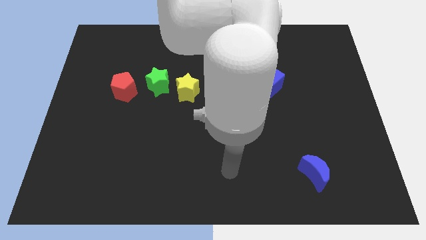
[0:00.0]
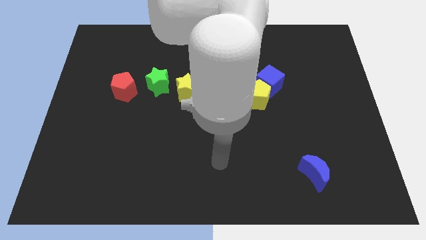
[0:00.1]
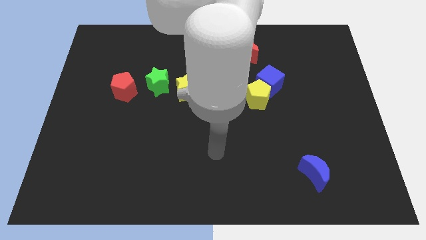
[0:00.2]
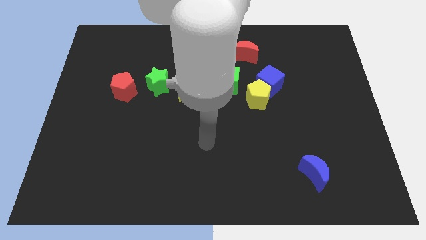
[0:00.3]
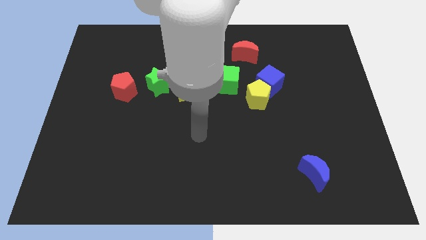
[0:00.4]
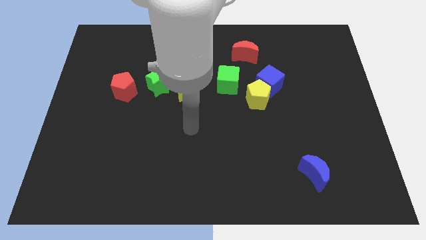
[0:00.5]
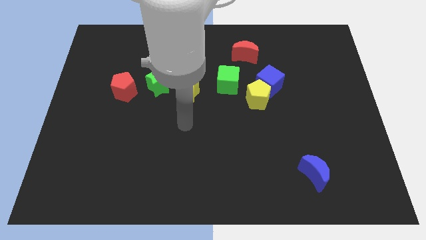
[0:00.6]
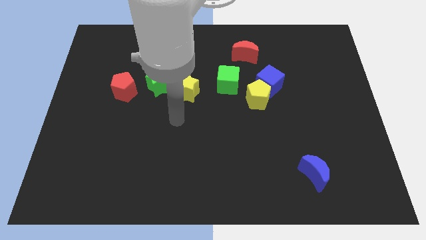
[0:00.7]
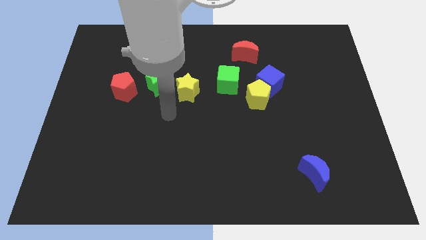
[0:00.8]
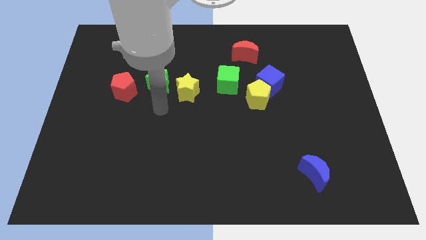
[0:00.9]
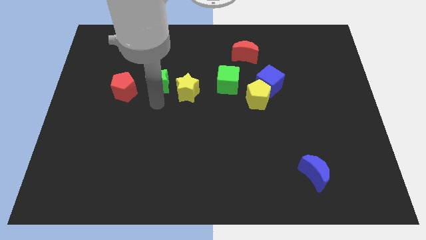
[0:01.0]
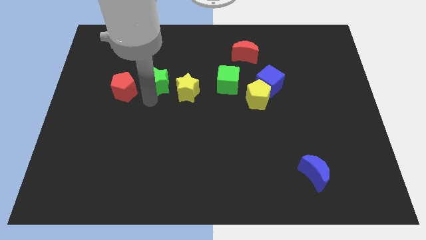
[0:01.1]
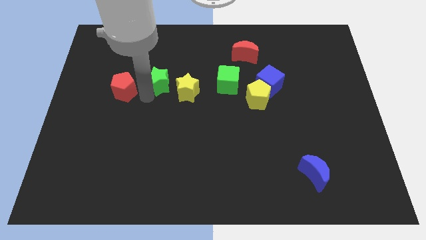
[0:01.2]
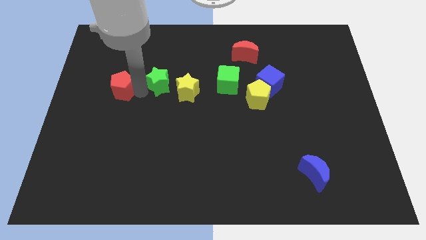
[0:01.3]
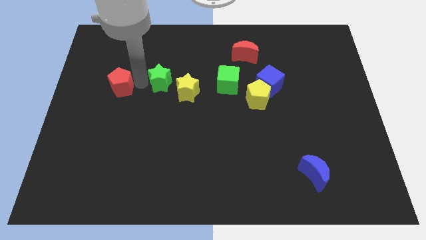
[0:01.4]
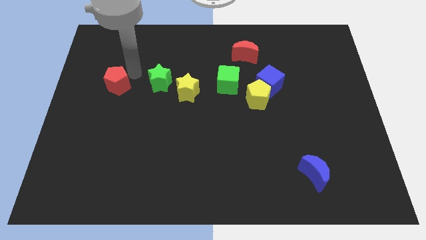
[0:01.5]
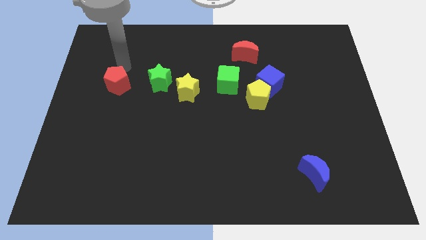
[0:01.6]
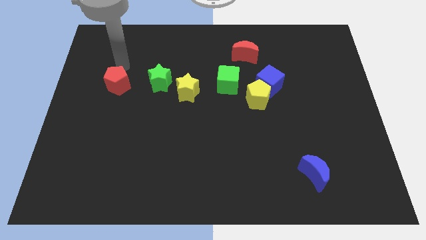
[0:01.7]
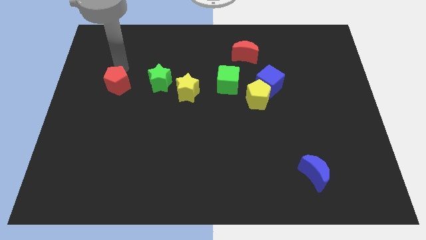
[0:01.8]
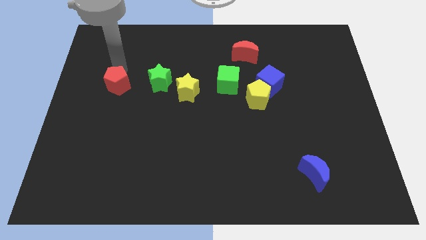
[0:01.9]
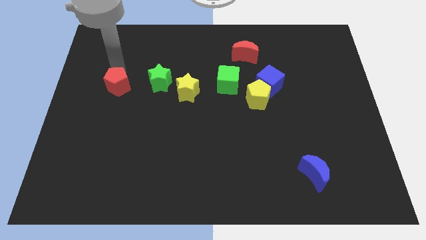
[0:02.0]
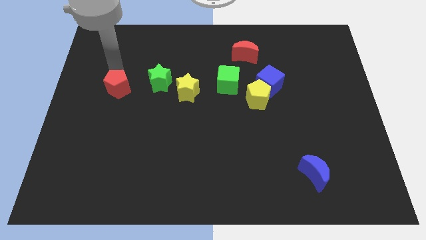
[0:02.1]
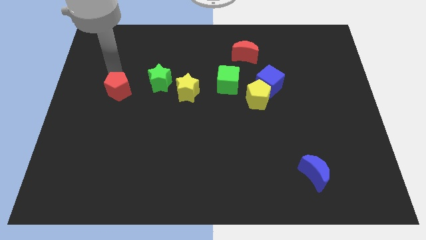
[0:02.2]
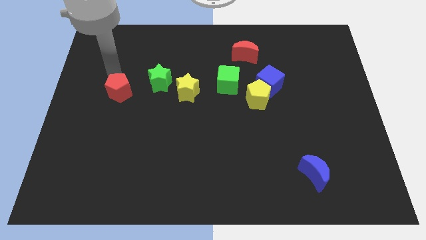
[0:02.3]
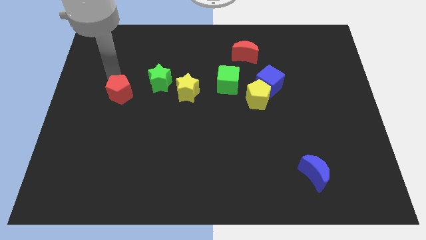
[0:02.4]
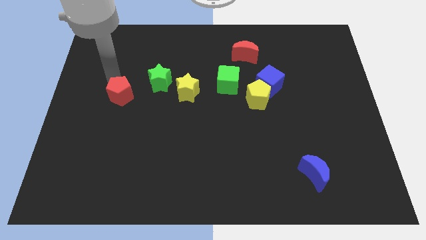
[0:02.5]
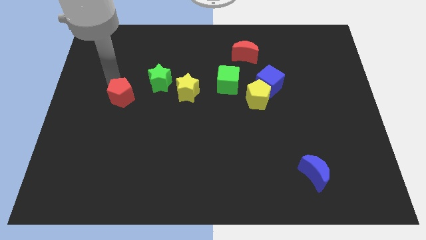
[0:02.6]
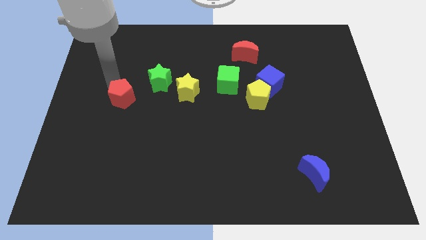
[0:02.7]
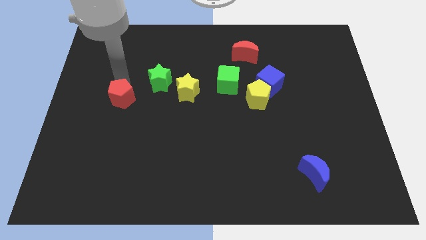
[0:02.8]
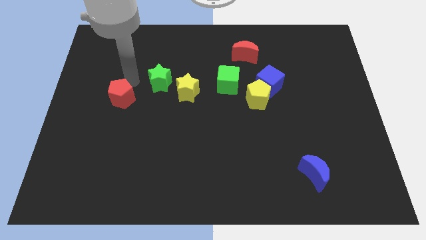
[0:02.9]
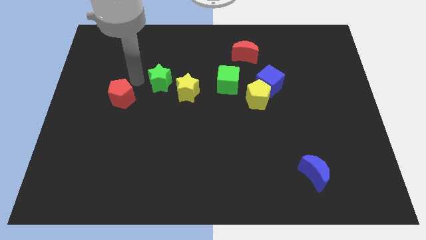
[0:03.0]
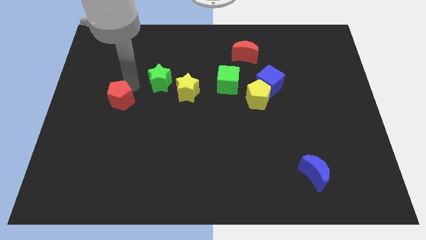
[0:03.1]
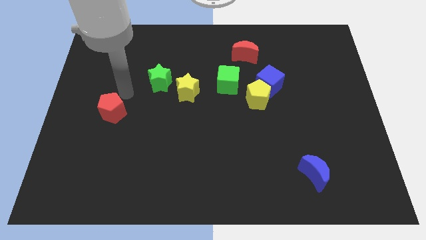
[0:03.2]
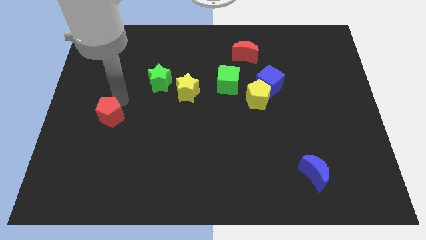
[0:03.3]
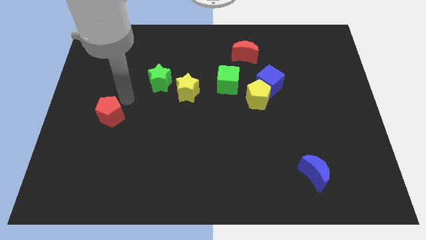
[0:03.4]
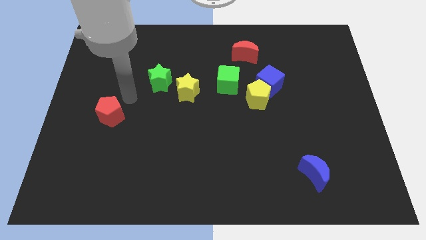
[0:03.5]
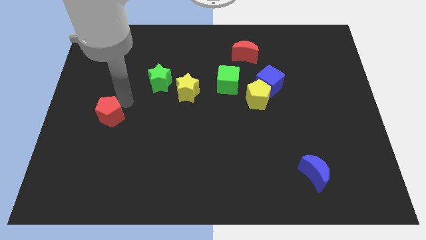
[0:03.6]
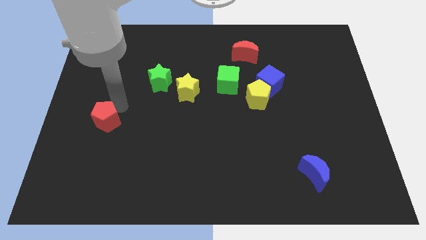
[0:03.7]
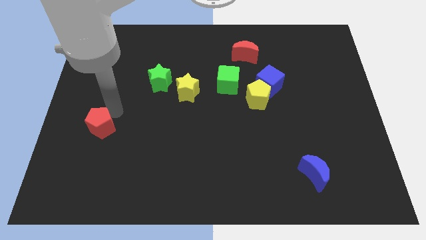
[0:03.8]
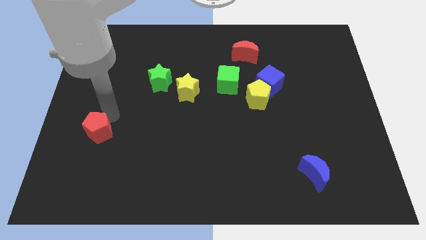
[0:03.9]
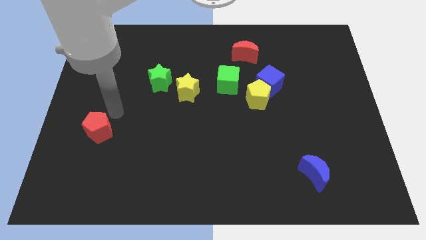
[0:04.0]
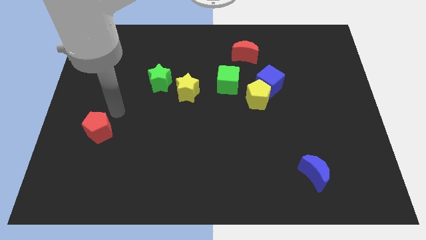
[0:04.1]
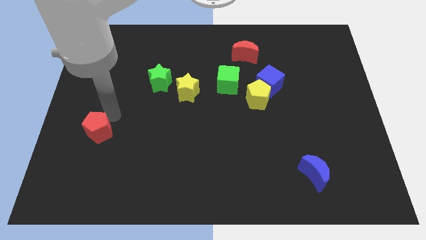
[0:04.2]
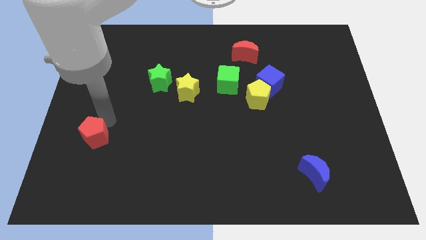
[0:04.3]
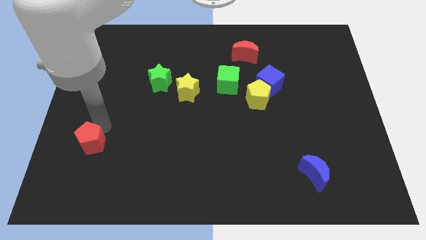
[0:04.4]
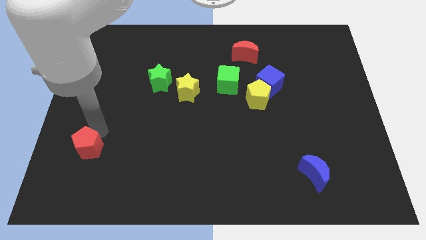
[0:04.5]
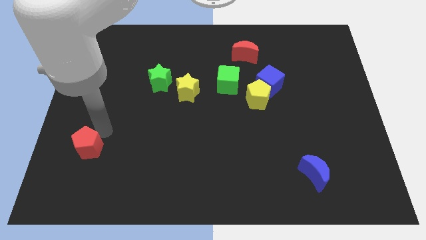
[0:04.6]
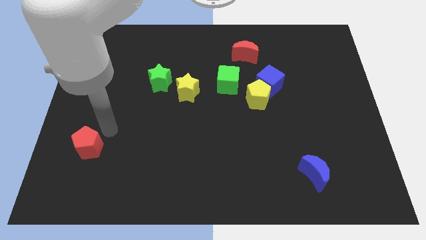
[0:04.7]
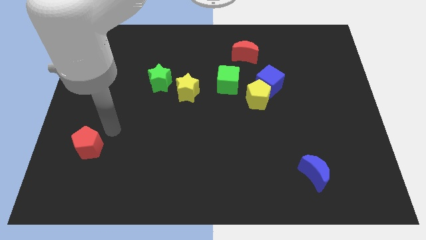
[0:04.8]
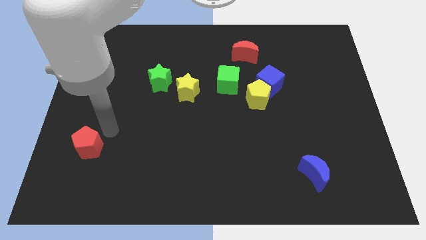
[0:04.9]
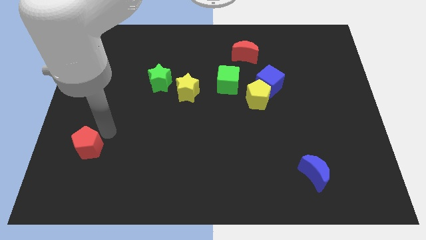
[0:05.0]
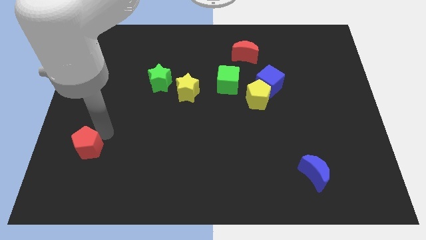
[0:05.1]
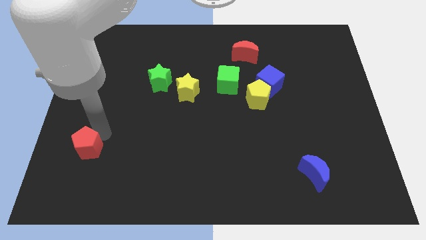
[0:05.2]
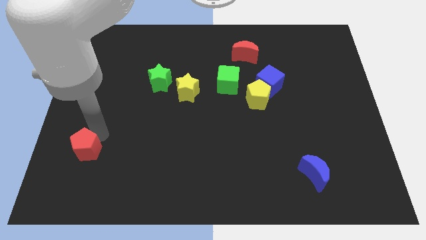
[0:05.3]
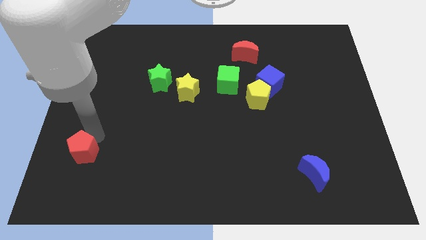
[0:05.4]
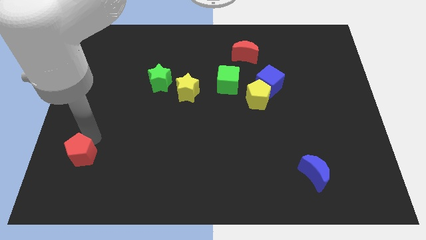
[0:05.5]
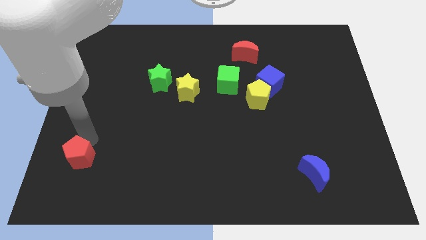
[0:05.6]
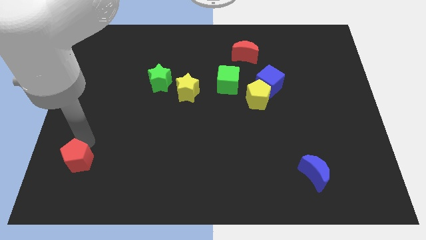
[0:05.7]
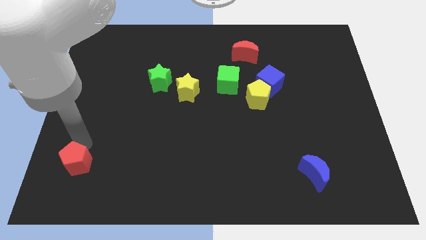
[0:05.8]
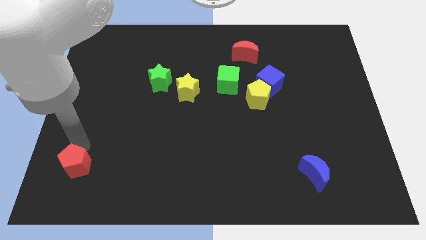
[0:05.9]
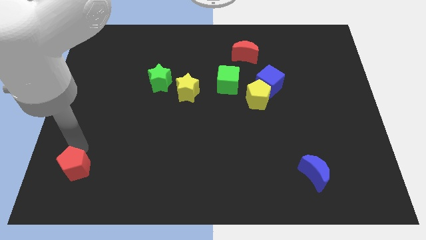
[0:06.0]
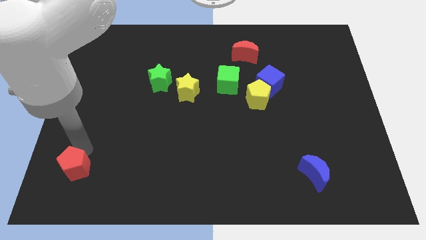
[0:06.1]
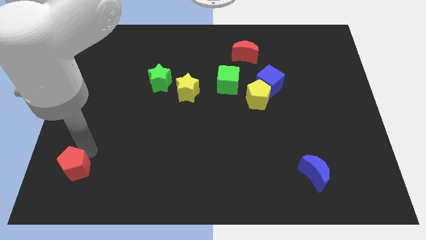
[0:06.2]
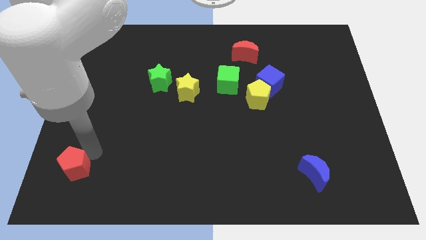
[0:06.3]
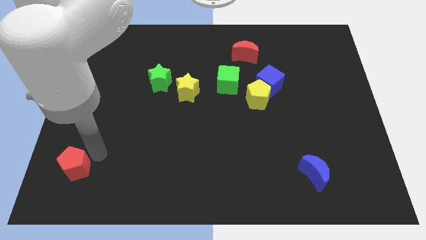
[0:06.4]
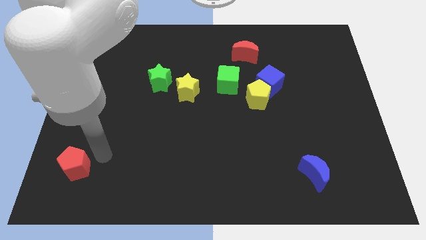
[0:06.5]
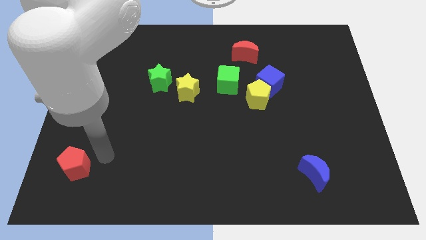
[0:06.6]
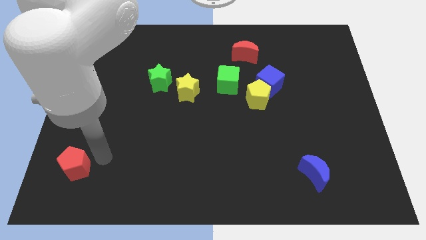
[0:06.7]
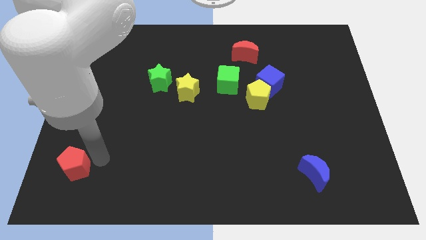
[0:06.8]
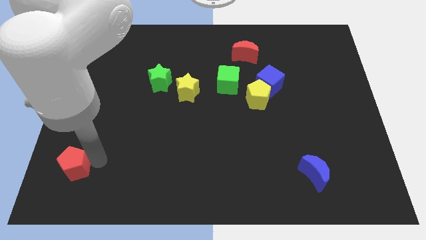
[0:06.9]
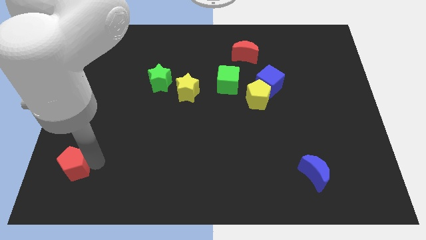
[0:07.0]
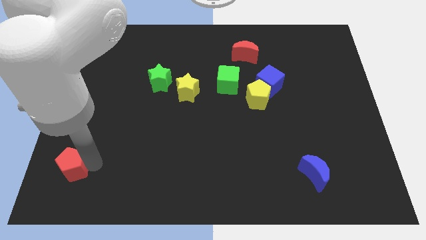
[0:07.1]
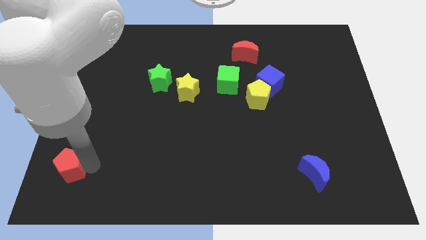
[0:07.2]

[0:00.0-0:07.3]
put the red pentagon to the bottom left of the board
